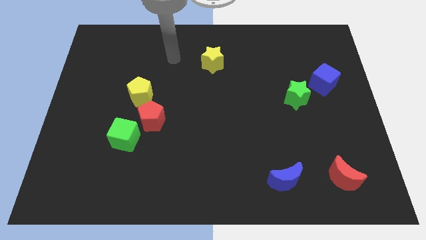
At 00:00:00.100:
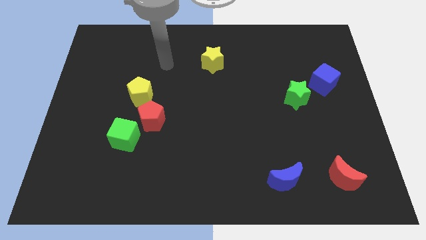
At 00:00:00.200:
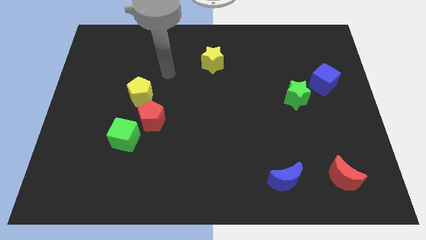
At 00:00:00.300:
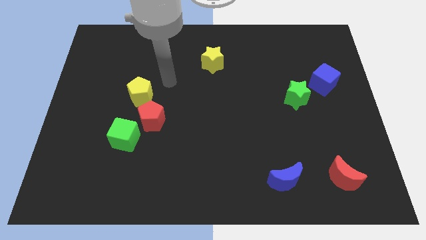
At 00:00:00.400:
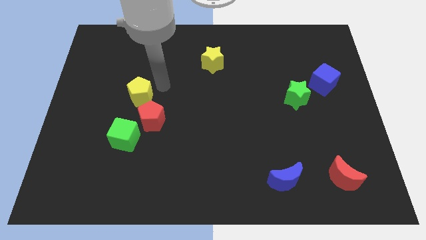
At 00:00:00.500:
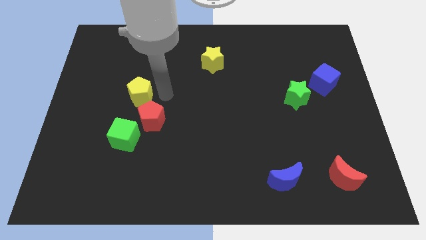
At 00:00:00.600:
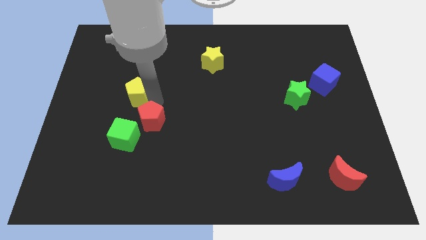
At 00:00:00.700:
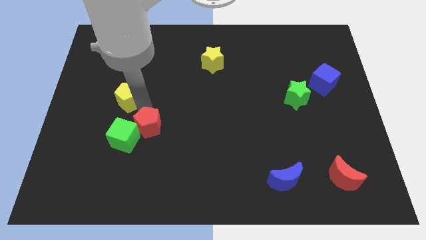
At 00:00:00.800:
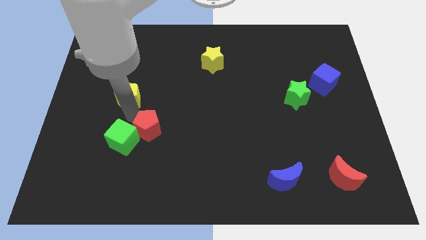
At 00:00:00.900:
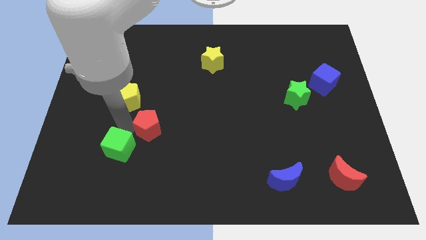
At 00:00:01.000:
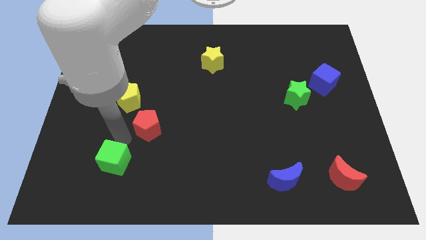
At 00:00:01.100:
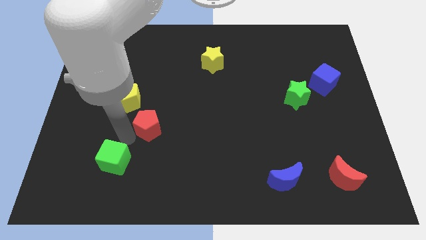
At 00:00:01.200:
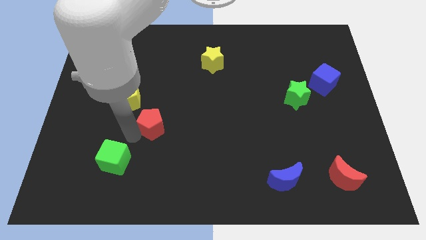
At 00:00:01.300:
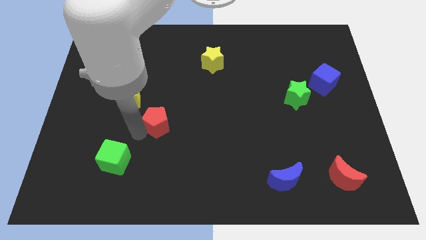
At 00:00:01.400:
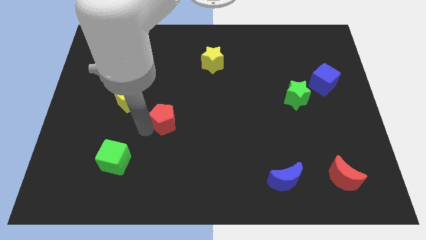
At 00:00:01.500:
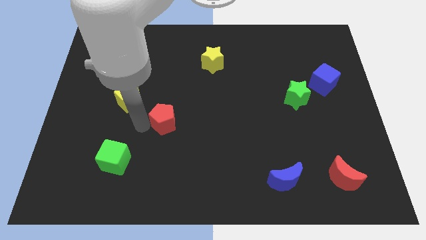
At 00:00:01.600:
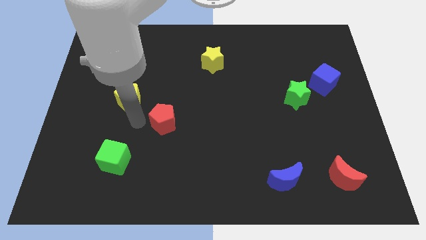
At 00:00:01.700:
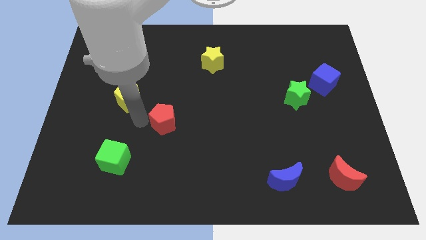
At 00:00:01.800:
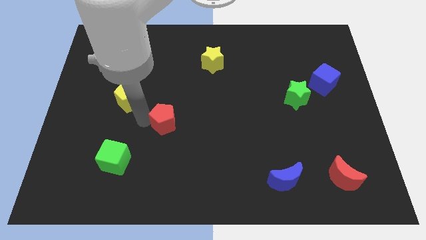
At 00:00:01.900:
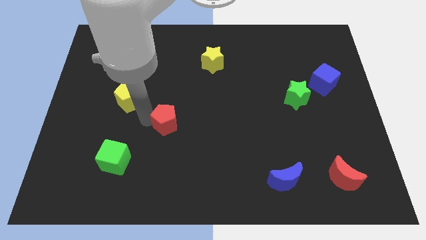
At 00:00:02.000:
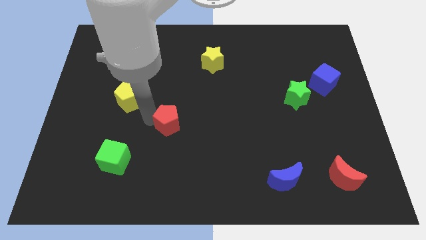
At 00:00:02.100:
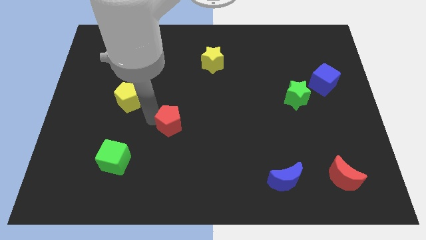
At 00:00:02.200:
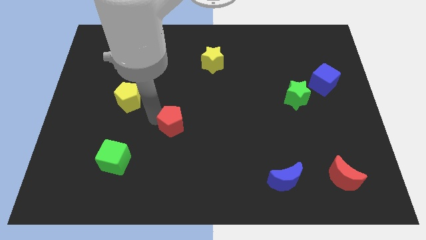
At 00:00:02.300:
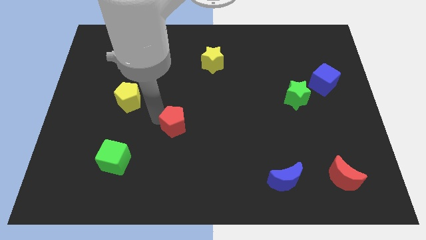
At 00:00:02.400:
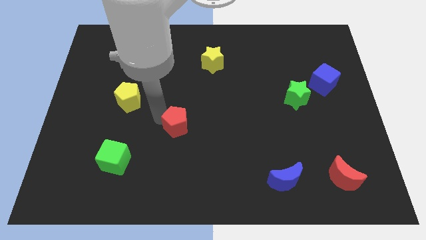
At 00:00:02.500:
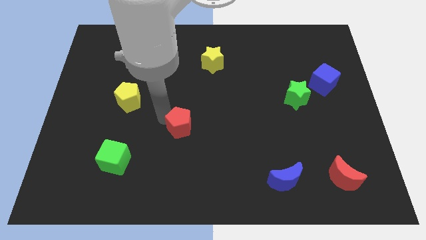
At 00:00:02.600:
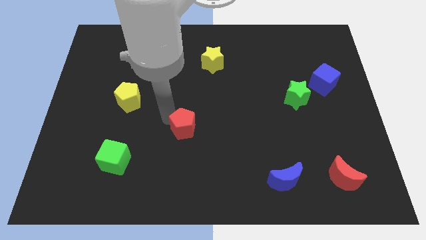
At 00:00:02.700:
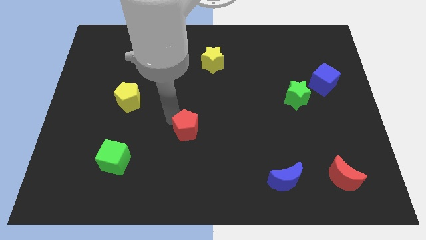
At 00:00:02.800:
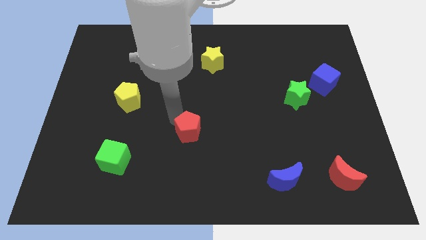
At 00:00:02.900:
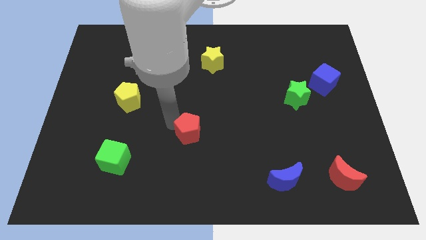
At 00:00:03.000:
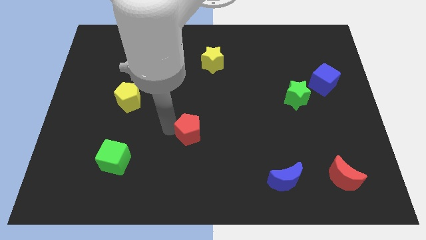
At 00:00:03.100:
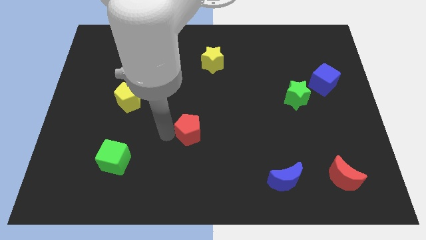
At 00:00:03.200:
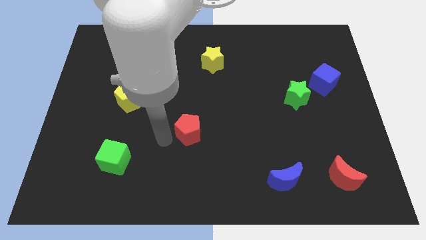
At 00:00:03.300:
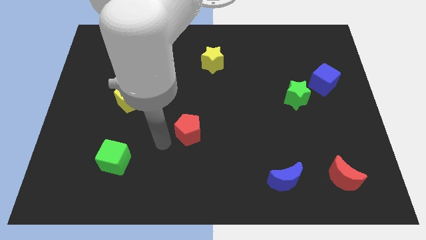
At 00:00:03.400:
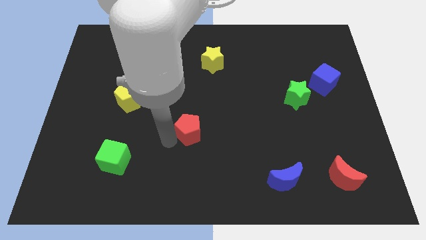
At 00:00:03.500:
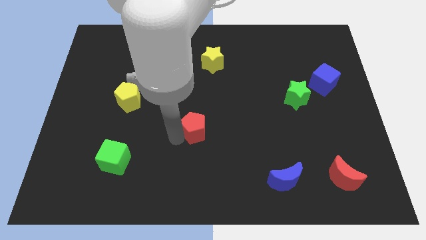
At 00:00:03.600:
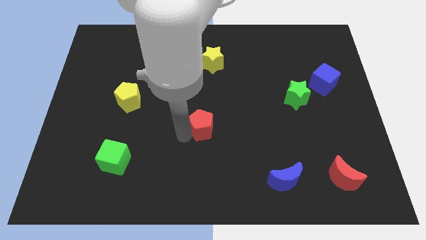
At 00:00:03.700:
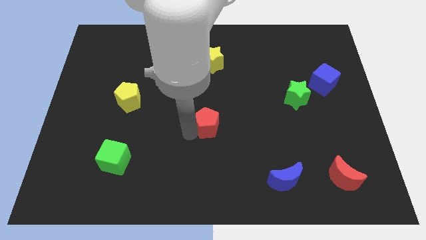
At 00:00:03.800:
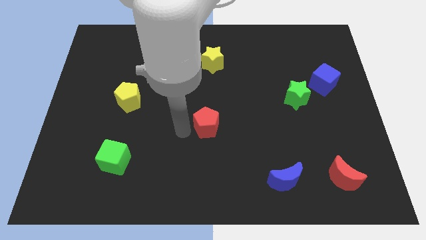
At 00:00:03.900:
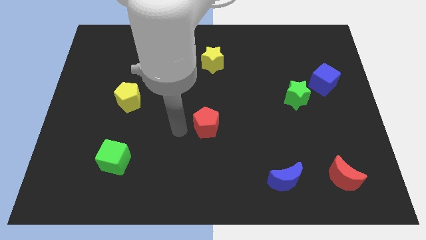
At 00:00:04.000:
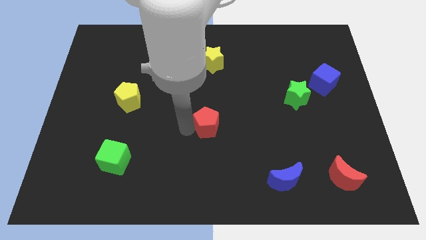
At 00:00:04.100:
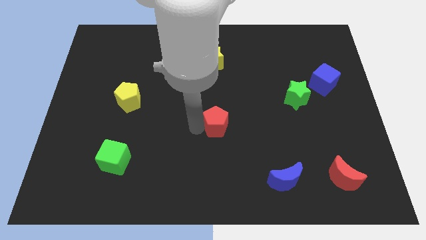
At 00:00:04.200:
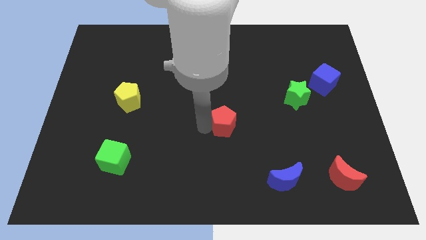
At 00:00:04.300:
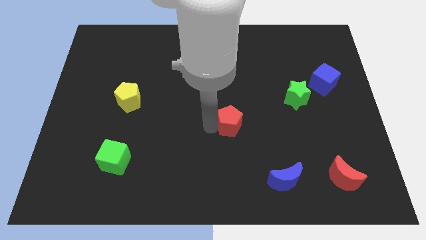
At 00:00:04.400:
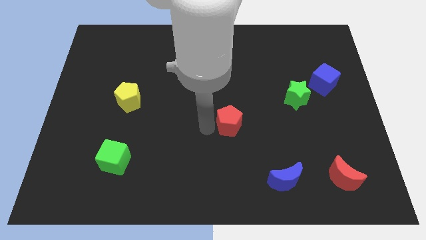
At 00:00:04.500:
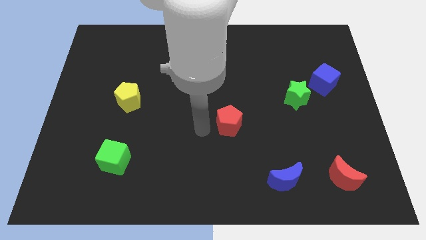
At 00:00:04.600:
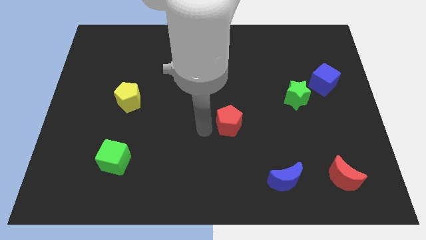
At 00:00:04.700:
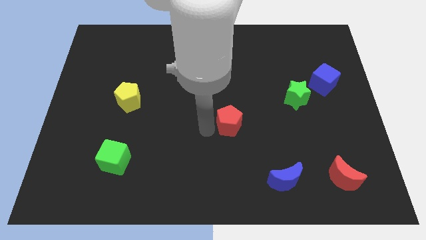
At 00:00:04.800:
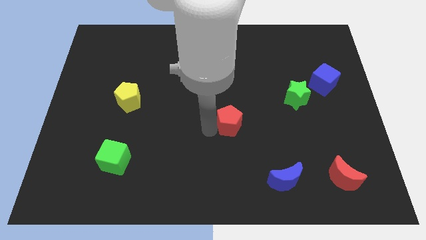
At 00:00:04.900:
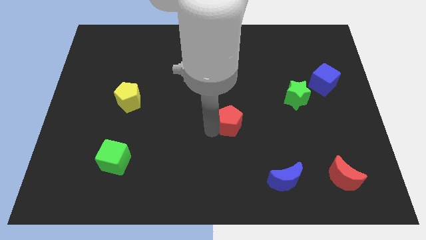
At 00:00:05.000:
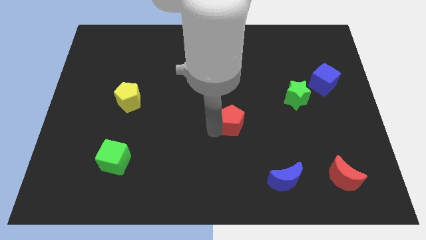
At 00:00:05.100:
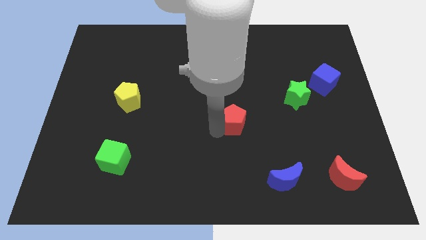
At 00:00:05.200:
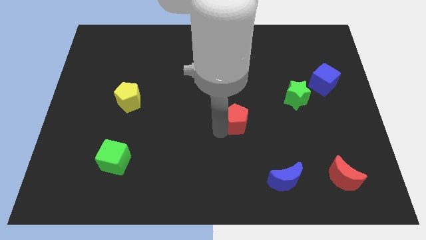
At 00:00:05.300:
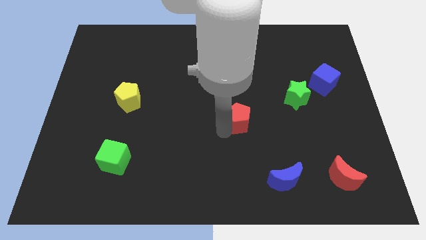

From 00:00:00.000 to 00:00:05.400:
push the red pentagon right

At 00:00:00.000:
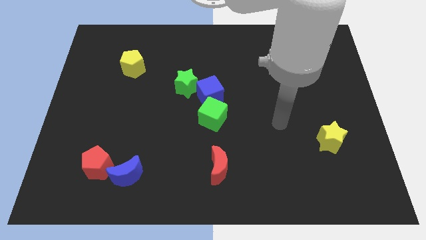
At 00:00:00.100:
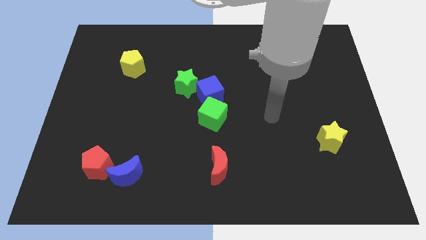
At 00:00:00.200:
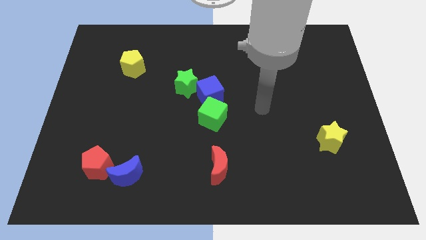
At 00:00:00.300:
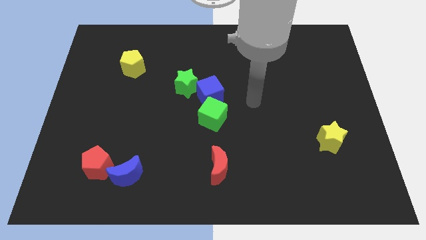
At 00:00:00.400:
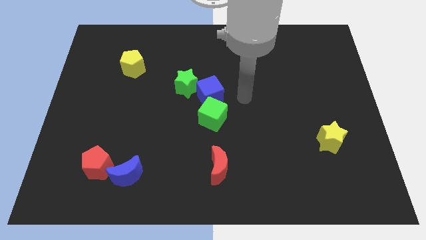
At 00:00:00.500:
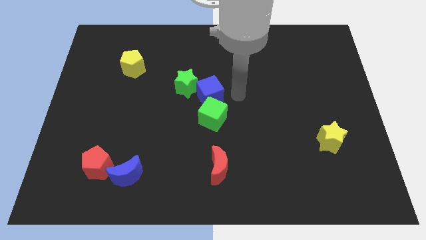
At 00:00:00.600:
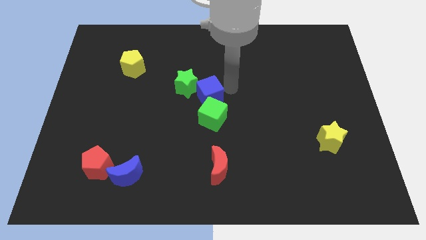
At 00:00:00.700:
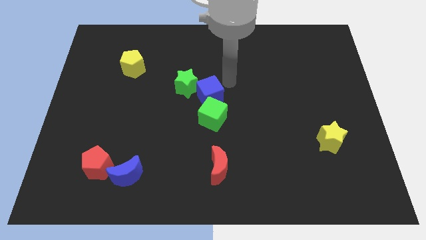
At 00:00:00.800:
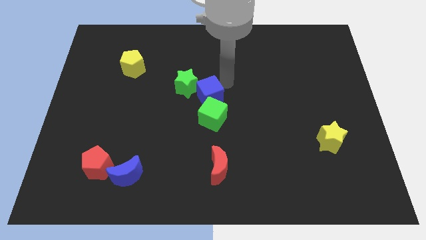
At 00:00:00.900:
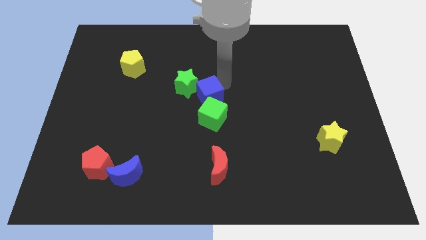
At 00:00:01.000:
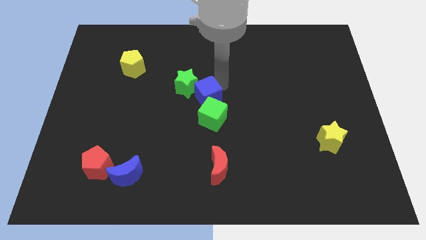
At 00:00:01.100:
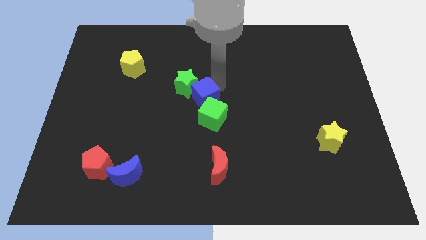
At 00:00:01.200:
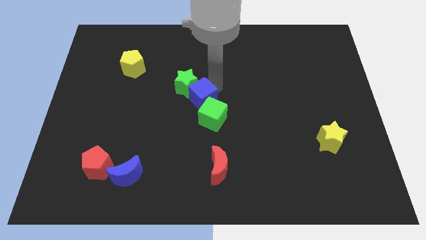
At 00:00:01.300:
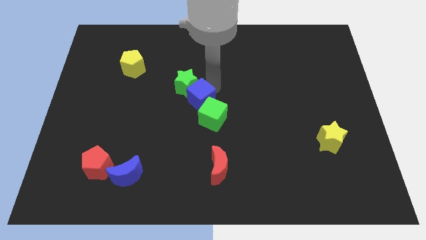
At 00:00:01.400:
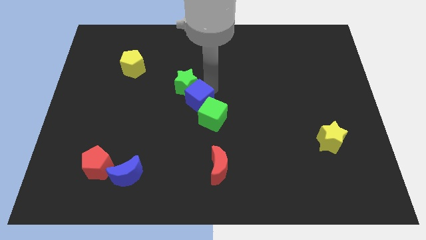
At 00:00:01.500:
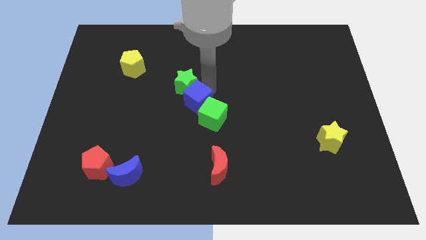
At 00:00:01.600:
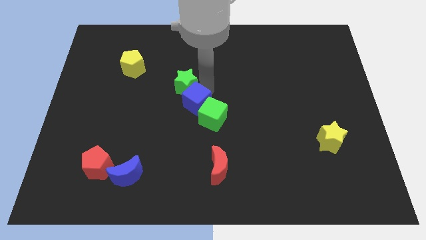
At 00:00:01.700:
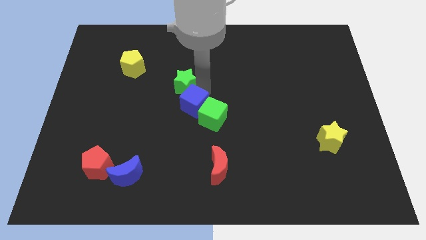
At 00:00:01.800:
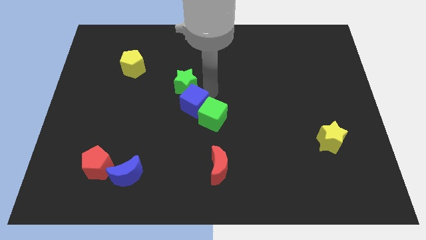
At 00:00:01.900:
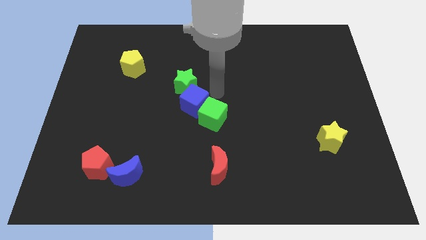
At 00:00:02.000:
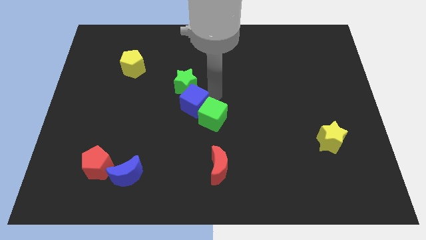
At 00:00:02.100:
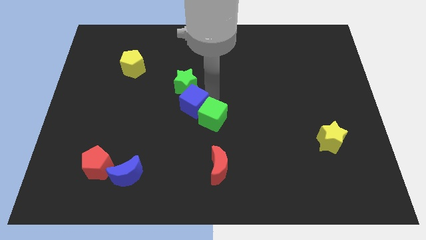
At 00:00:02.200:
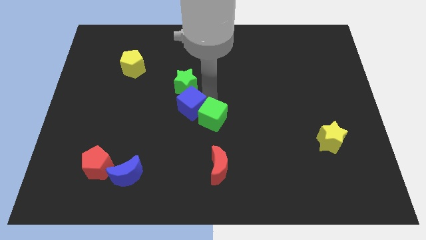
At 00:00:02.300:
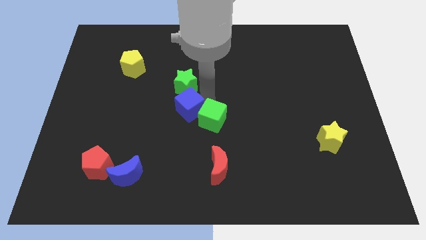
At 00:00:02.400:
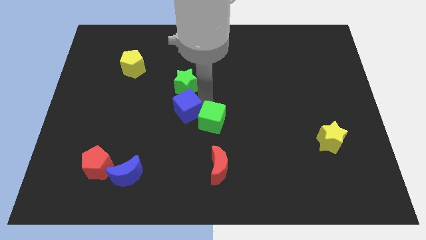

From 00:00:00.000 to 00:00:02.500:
push the blue cube downwards and left somewhat
